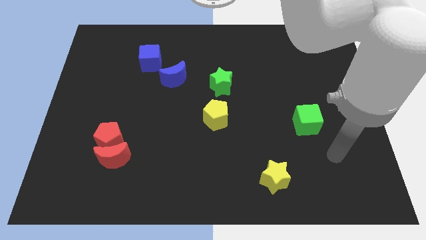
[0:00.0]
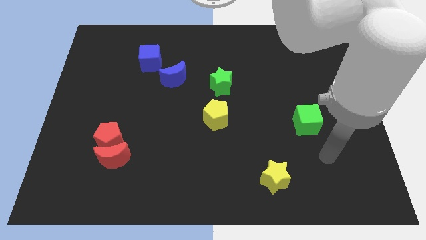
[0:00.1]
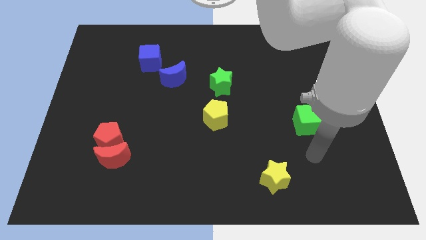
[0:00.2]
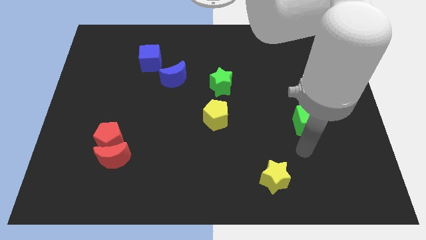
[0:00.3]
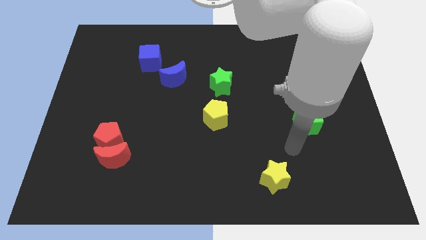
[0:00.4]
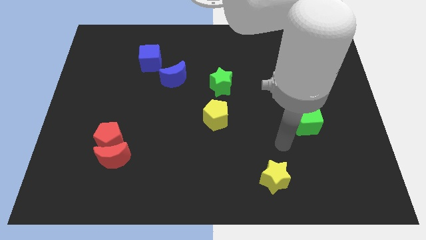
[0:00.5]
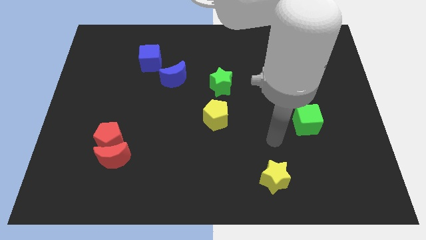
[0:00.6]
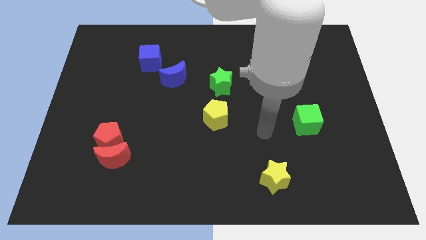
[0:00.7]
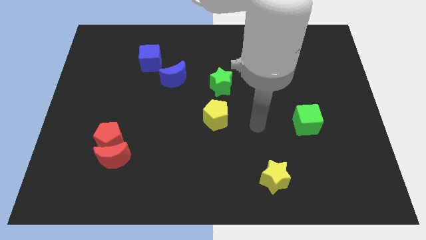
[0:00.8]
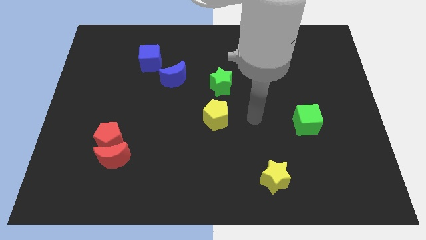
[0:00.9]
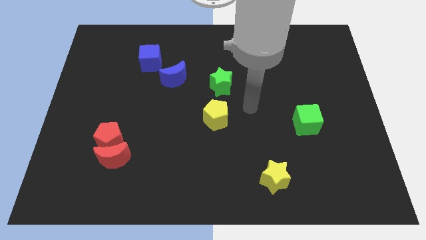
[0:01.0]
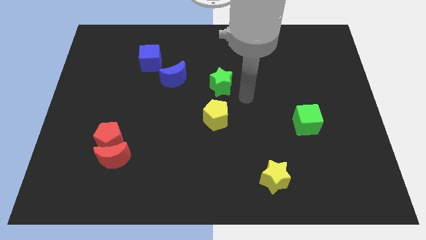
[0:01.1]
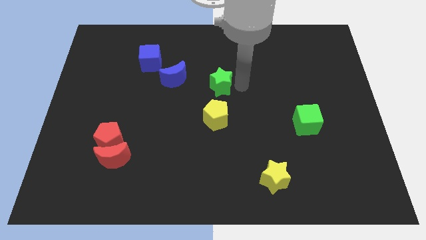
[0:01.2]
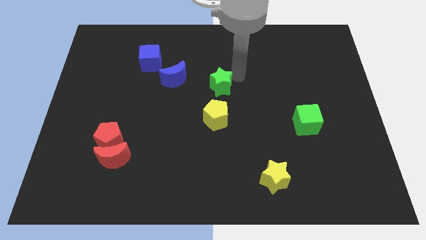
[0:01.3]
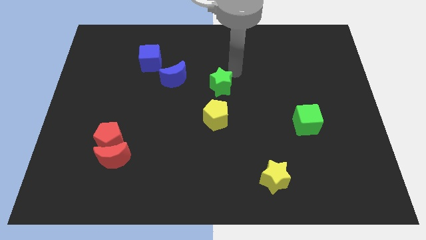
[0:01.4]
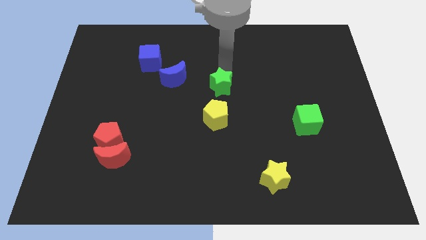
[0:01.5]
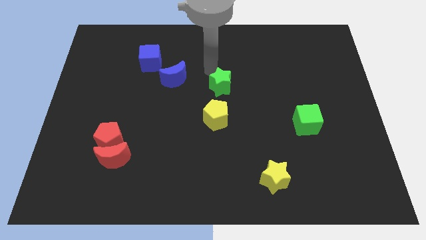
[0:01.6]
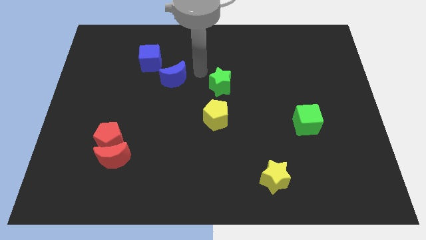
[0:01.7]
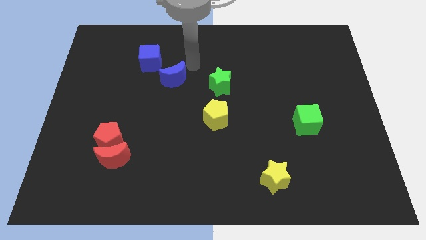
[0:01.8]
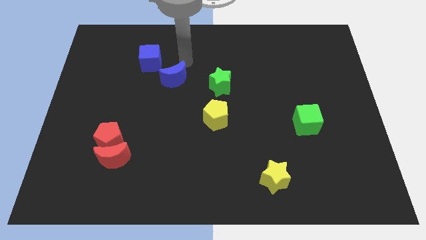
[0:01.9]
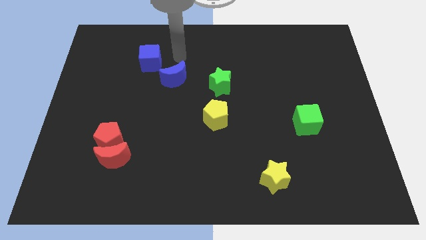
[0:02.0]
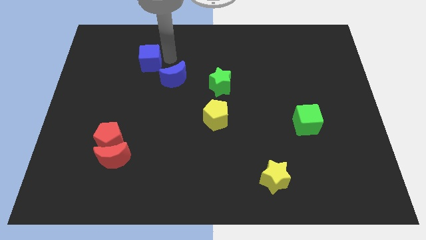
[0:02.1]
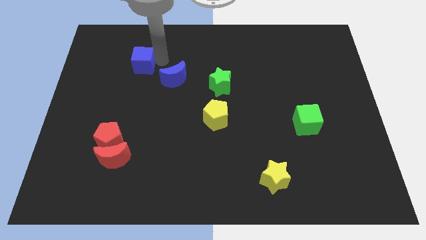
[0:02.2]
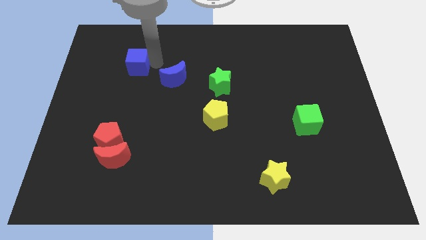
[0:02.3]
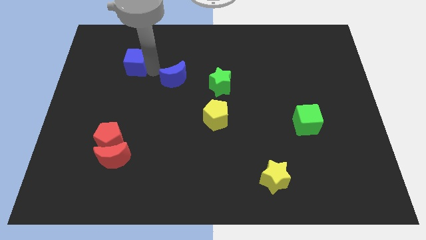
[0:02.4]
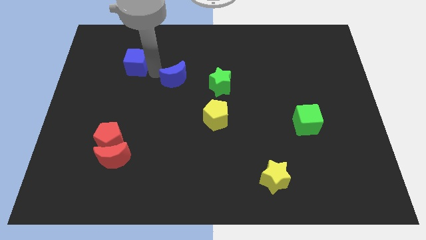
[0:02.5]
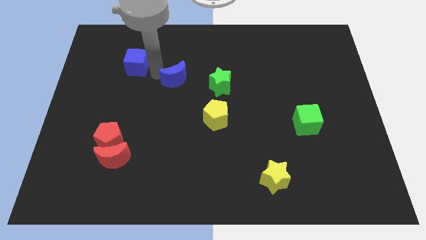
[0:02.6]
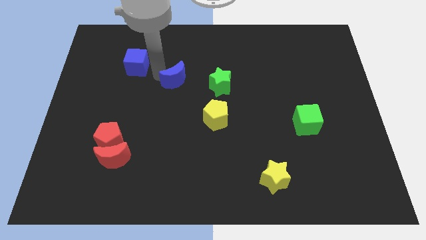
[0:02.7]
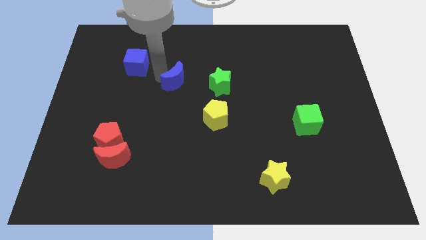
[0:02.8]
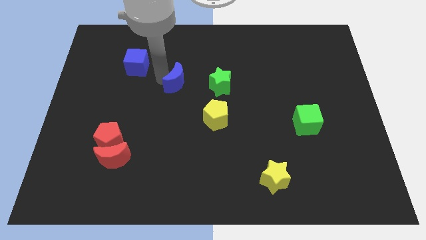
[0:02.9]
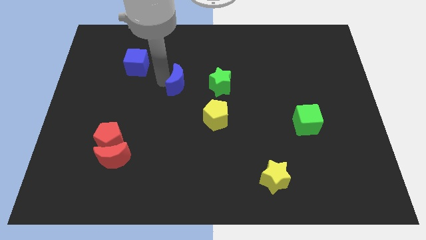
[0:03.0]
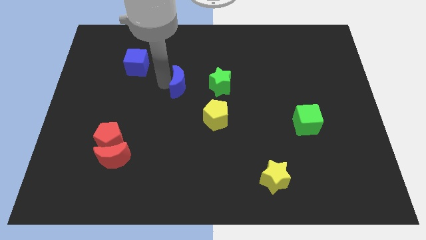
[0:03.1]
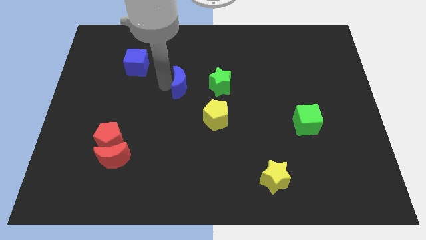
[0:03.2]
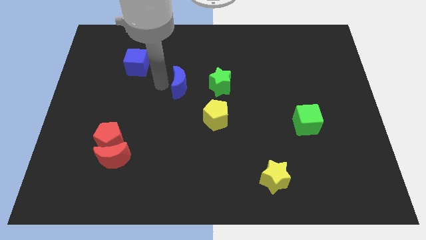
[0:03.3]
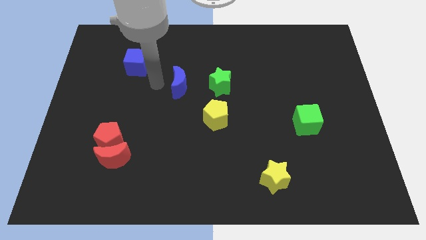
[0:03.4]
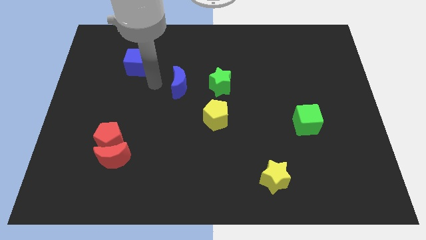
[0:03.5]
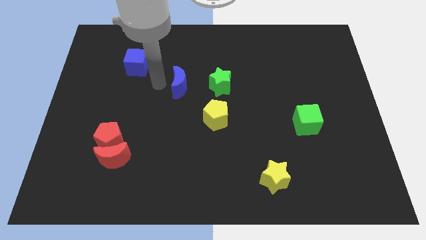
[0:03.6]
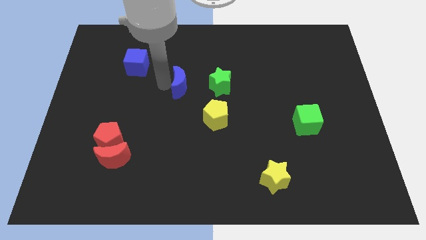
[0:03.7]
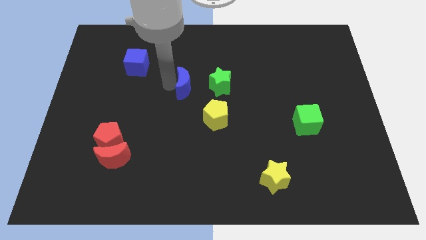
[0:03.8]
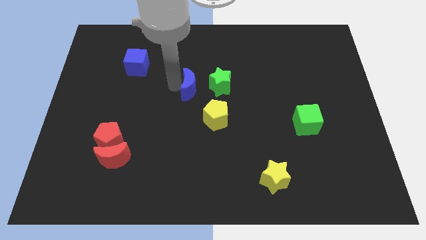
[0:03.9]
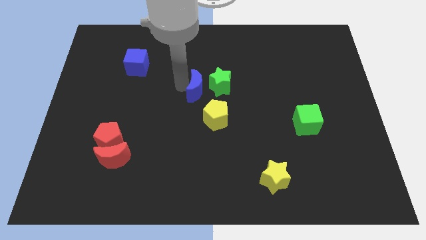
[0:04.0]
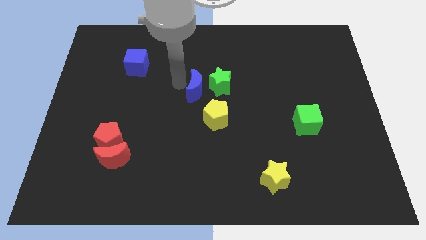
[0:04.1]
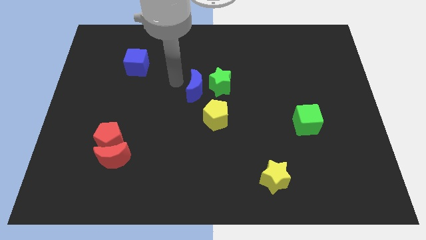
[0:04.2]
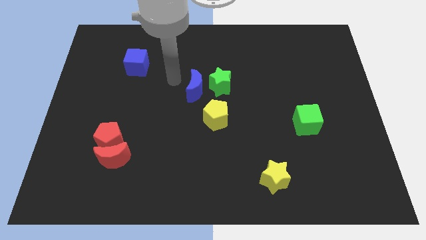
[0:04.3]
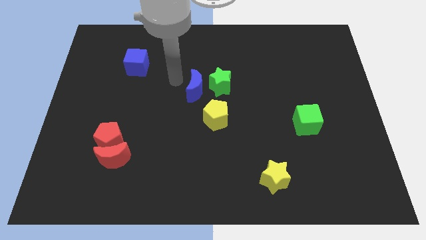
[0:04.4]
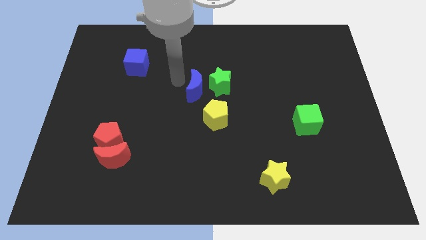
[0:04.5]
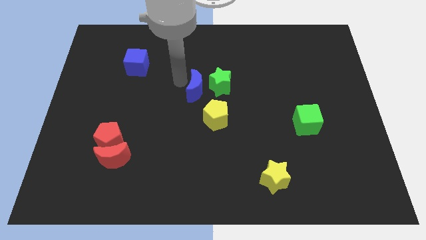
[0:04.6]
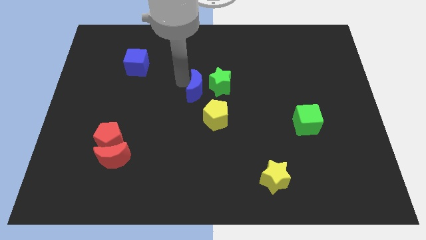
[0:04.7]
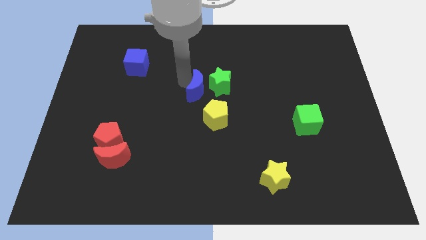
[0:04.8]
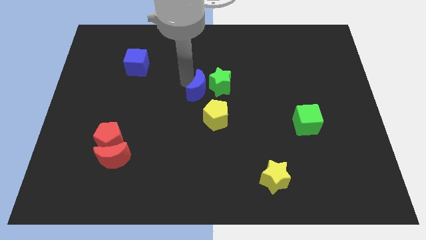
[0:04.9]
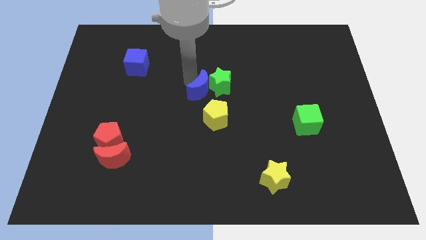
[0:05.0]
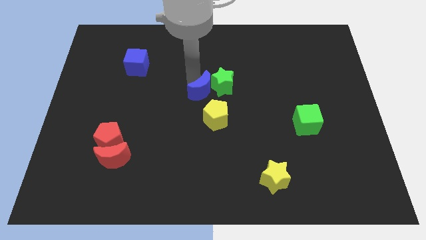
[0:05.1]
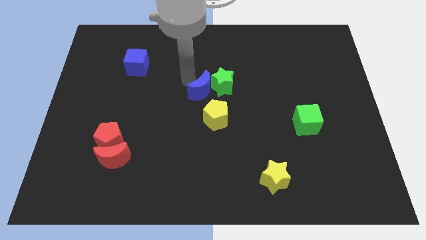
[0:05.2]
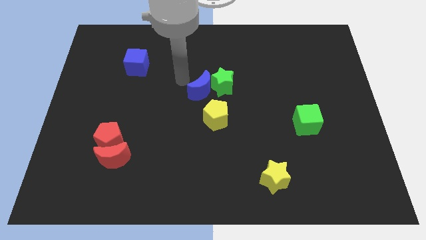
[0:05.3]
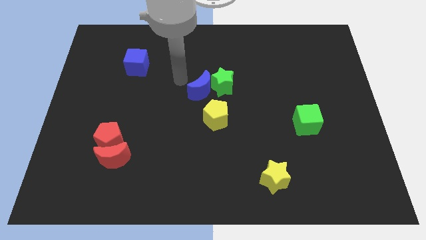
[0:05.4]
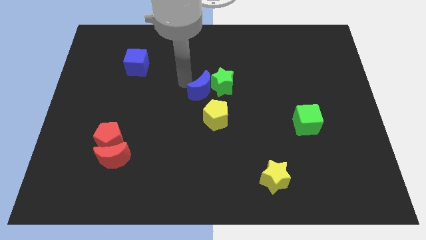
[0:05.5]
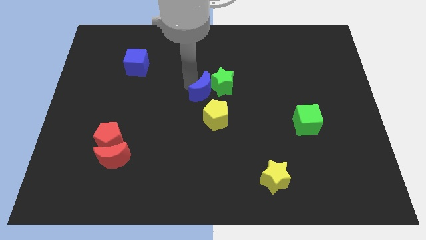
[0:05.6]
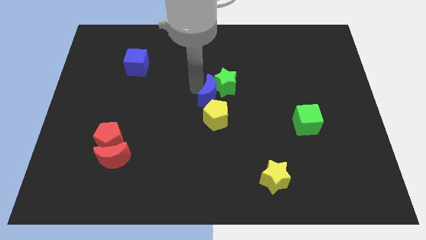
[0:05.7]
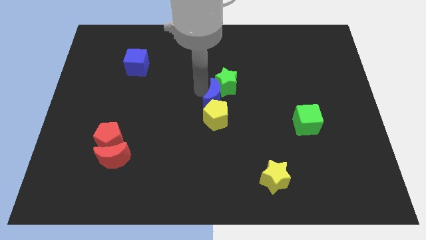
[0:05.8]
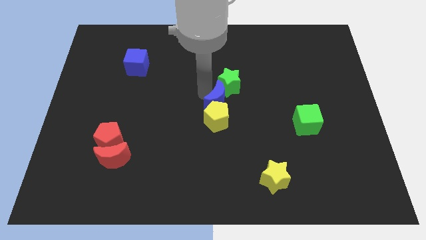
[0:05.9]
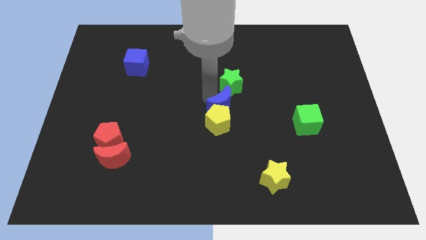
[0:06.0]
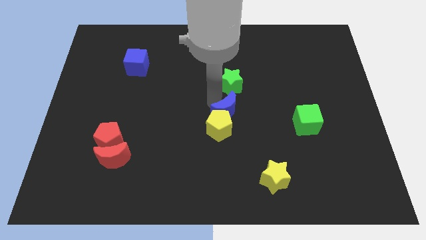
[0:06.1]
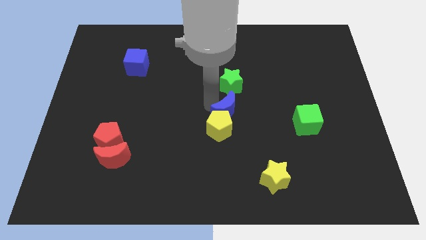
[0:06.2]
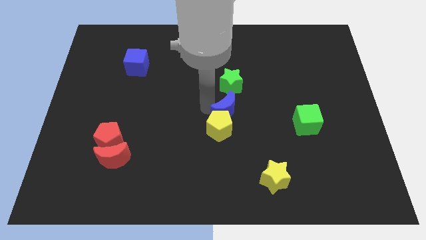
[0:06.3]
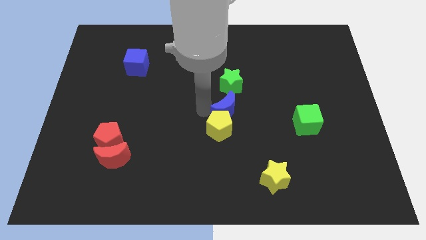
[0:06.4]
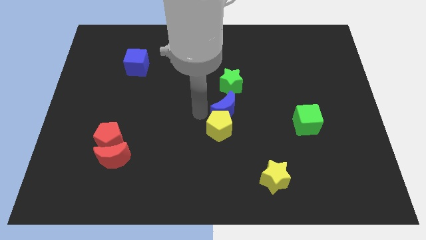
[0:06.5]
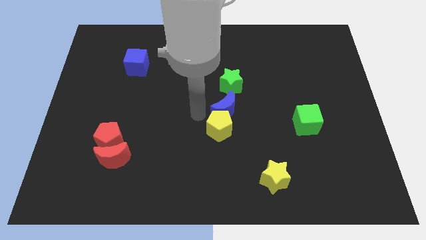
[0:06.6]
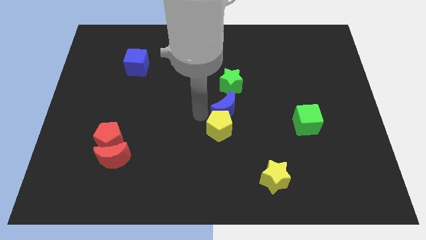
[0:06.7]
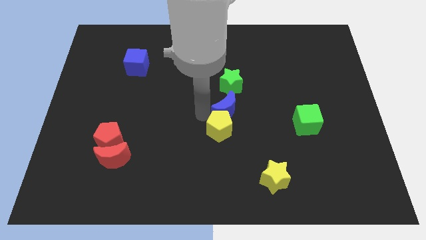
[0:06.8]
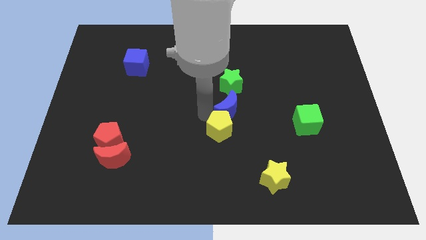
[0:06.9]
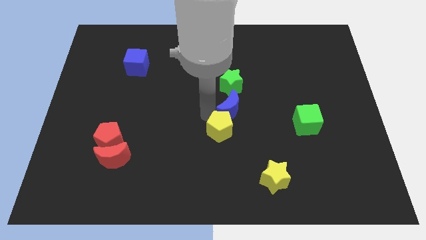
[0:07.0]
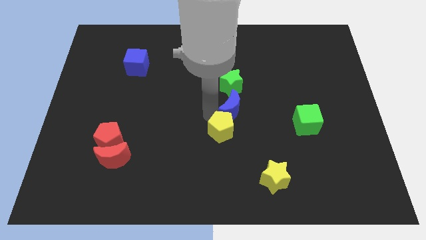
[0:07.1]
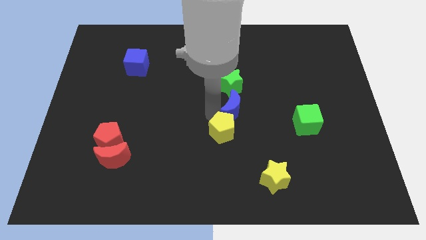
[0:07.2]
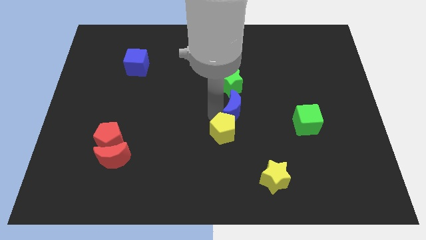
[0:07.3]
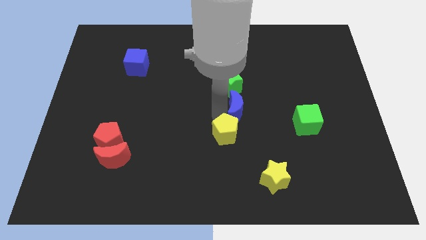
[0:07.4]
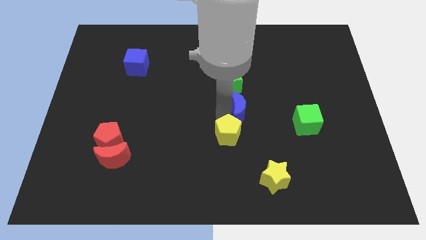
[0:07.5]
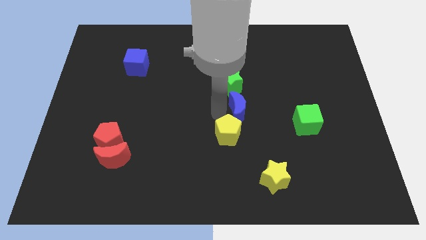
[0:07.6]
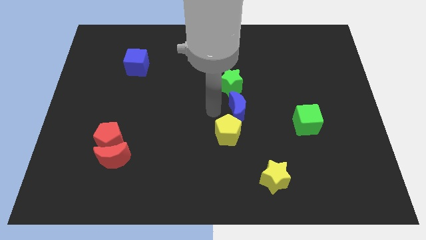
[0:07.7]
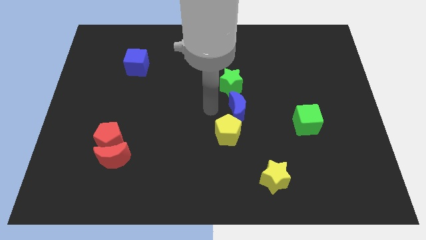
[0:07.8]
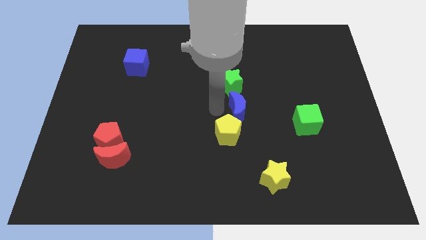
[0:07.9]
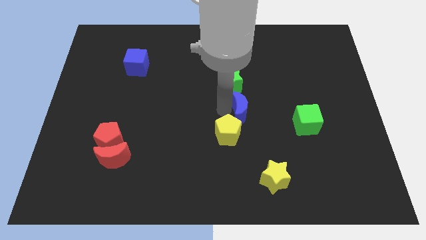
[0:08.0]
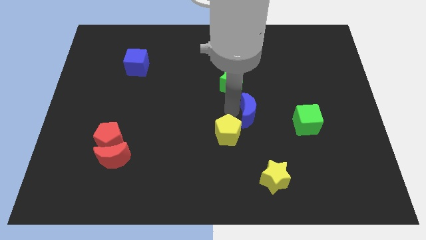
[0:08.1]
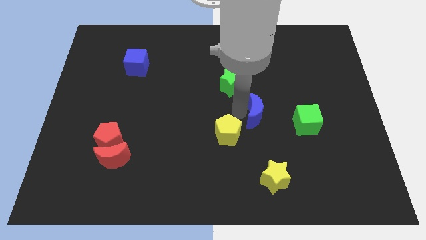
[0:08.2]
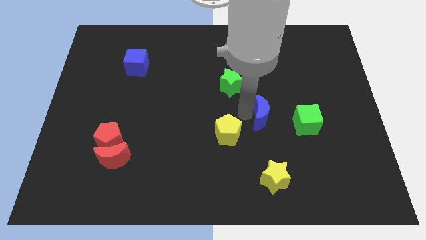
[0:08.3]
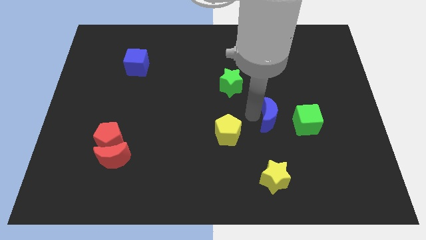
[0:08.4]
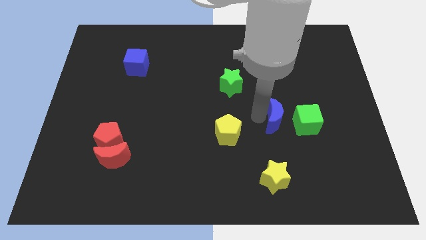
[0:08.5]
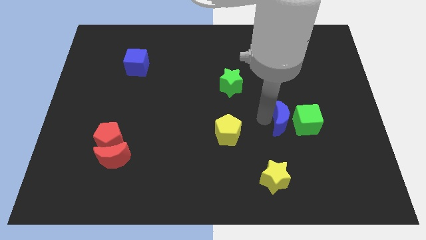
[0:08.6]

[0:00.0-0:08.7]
push the blue moon towards the green cube
